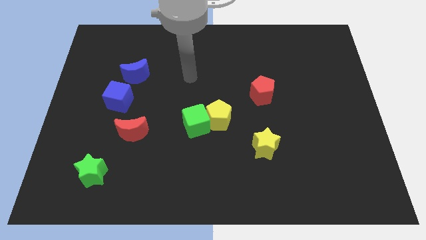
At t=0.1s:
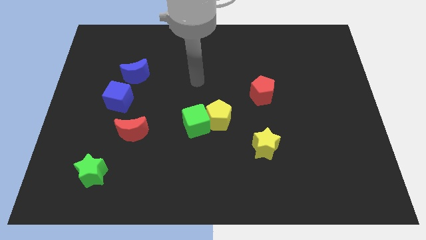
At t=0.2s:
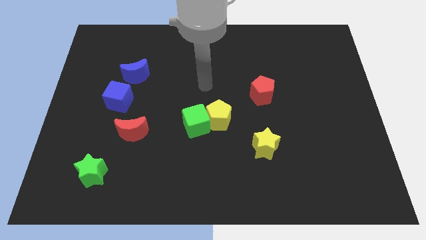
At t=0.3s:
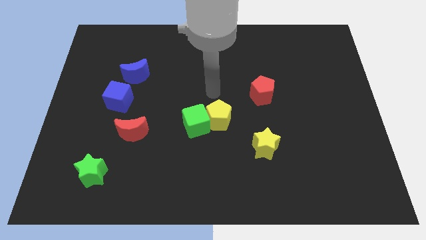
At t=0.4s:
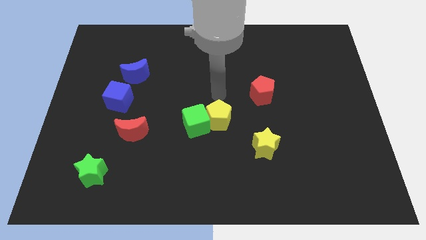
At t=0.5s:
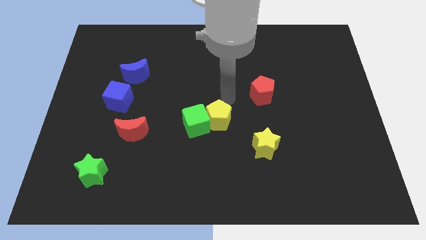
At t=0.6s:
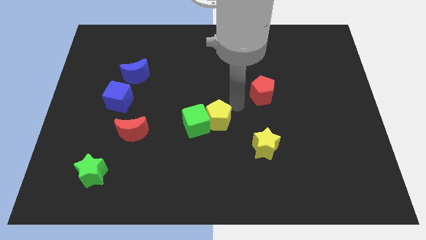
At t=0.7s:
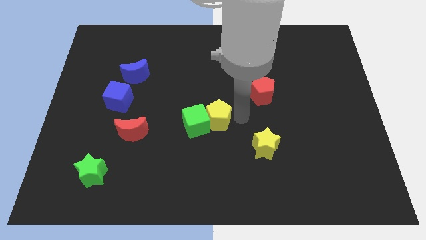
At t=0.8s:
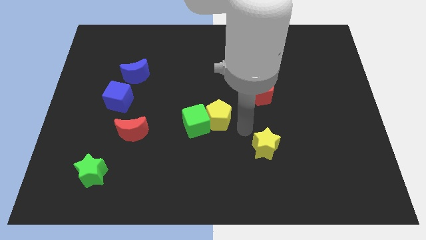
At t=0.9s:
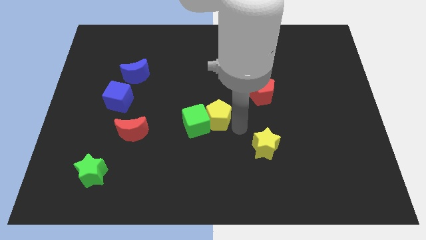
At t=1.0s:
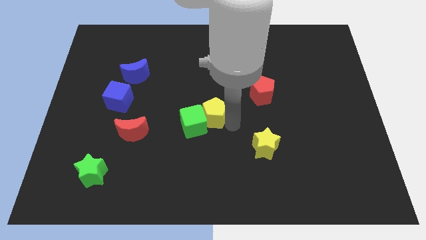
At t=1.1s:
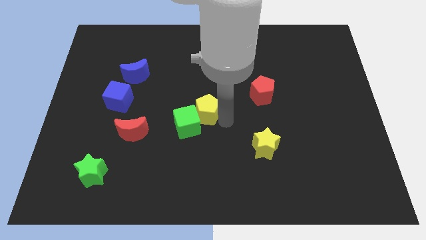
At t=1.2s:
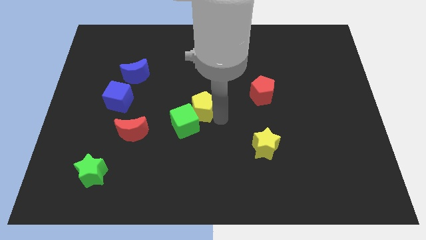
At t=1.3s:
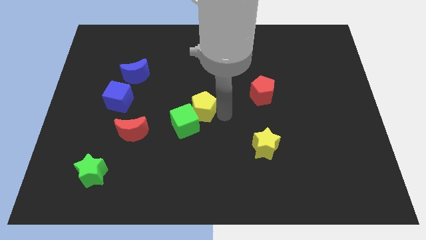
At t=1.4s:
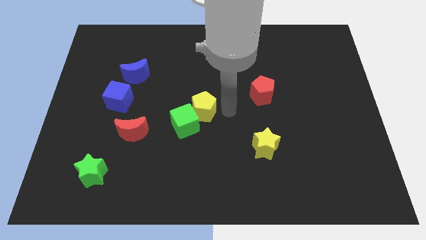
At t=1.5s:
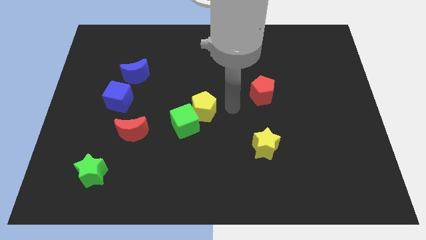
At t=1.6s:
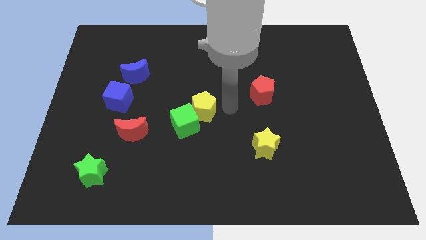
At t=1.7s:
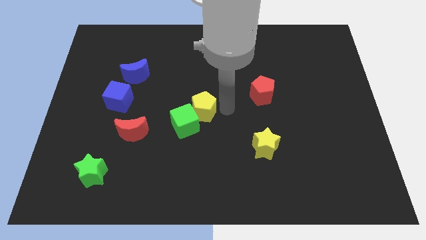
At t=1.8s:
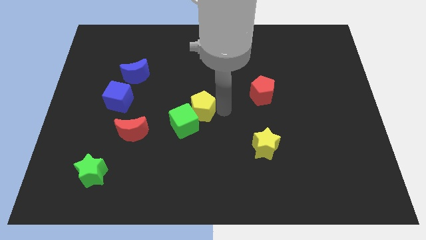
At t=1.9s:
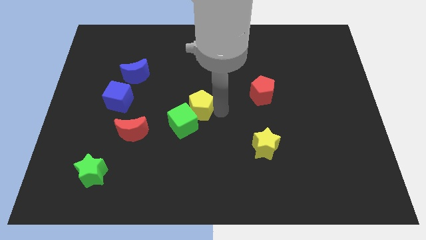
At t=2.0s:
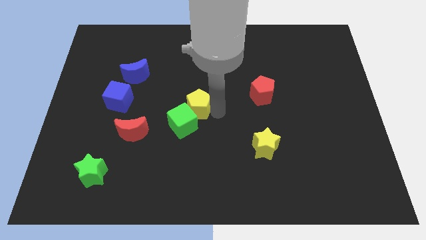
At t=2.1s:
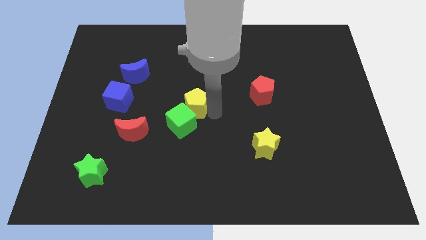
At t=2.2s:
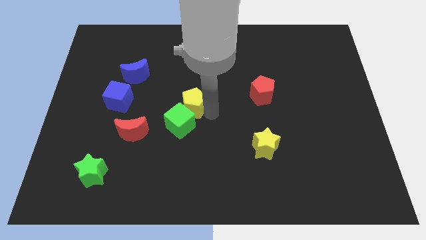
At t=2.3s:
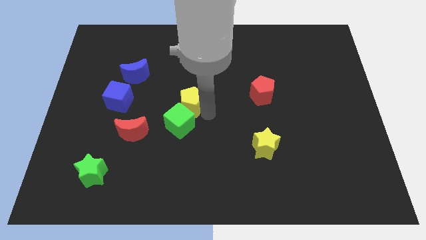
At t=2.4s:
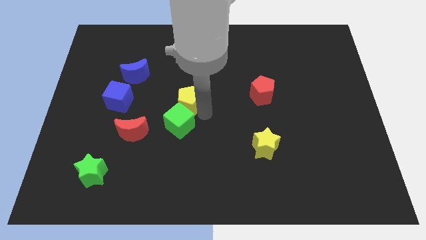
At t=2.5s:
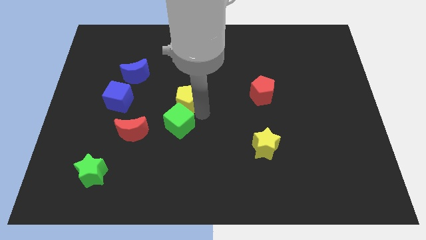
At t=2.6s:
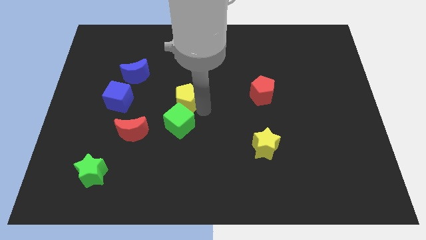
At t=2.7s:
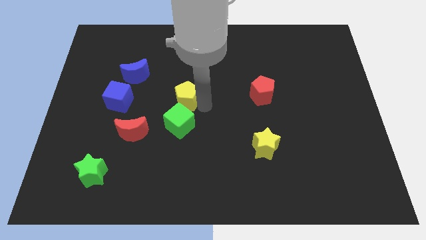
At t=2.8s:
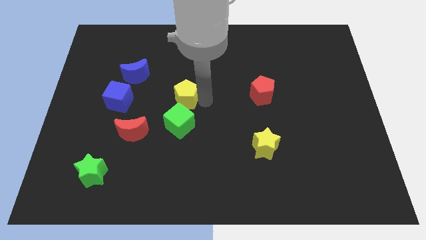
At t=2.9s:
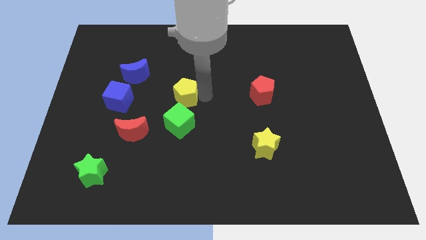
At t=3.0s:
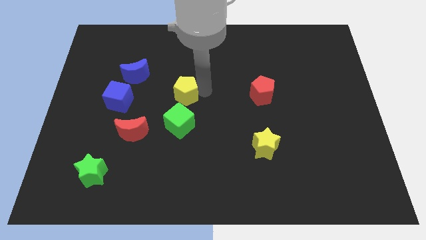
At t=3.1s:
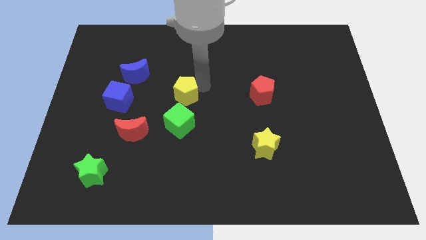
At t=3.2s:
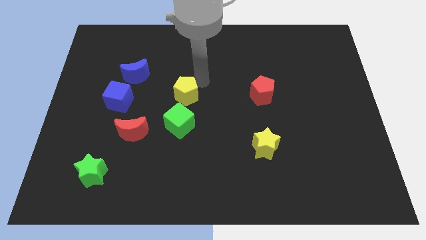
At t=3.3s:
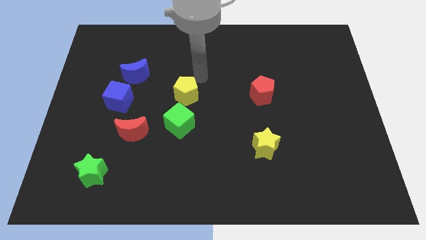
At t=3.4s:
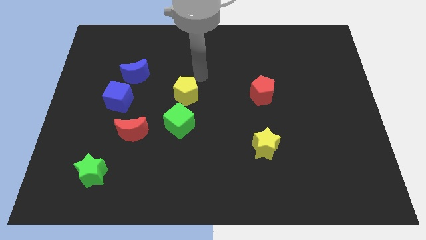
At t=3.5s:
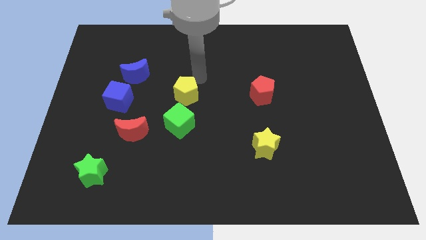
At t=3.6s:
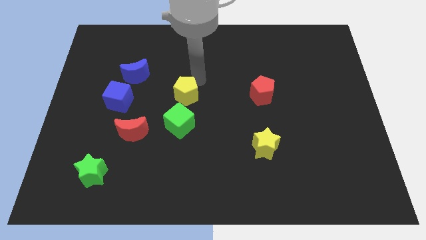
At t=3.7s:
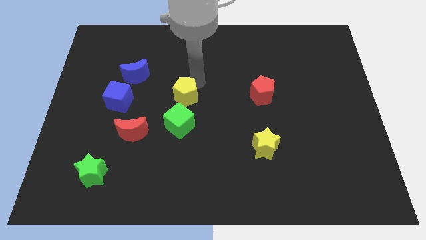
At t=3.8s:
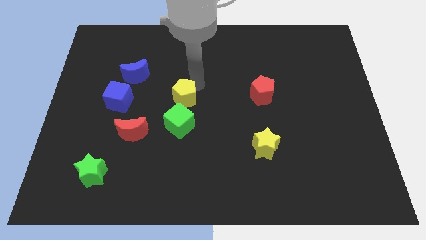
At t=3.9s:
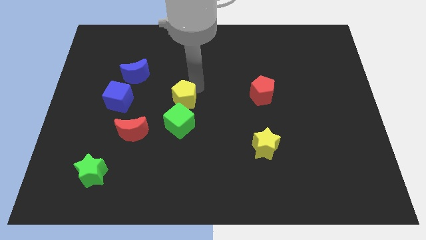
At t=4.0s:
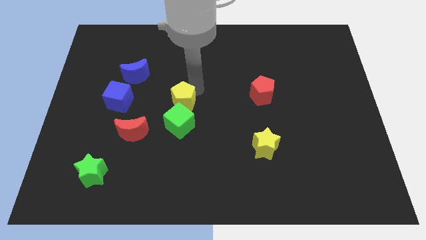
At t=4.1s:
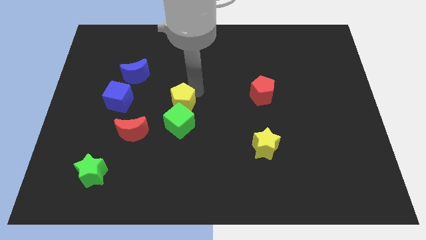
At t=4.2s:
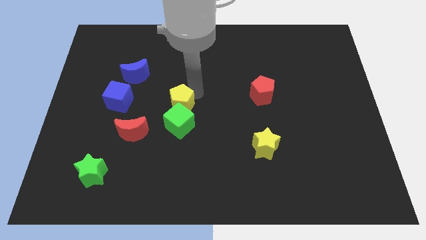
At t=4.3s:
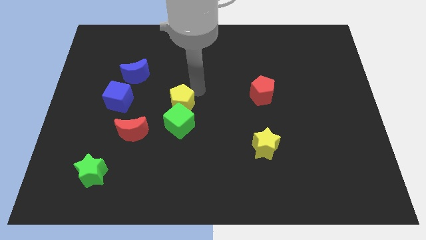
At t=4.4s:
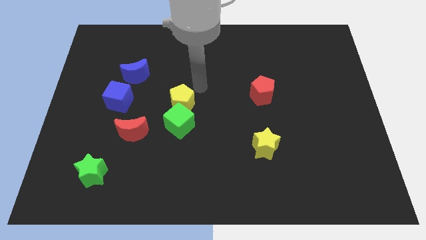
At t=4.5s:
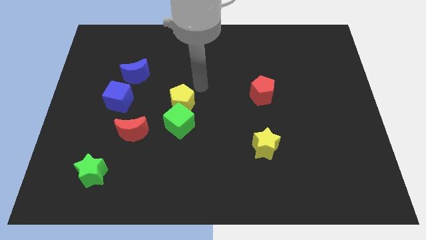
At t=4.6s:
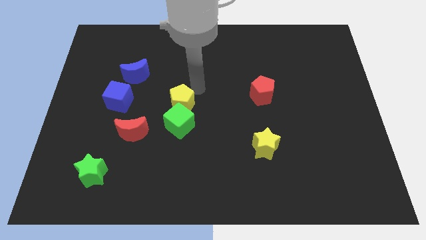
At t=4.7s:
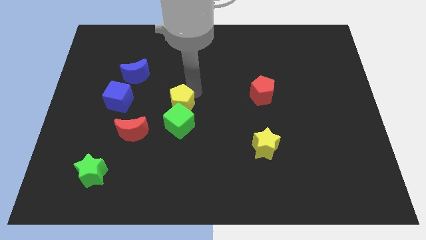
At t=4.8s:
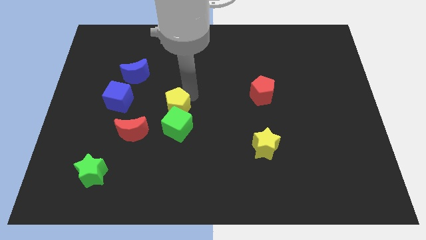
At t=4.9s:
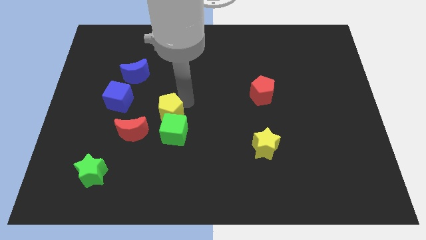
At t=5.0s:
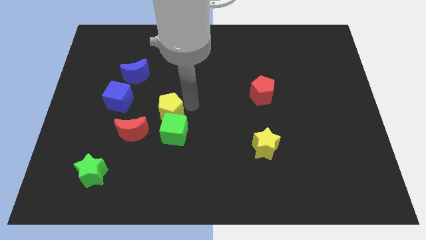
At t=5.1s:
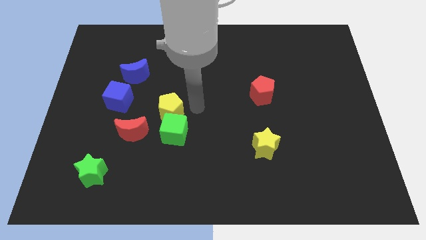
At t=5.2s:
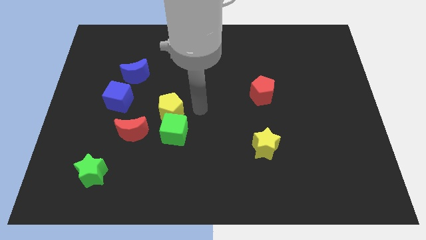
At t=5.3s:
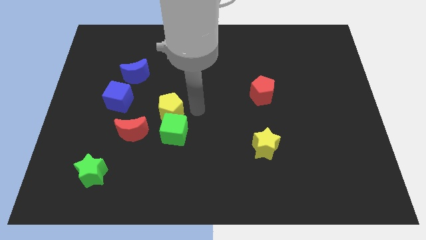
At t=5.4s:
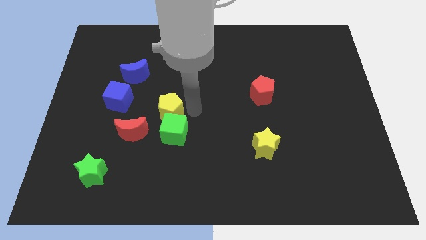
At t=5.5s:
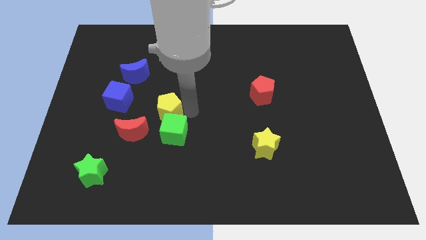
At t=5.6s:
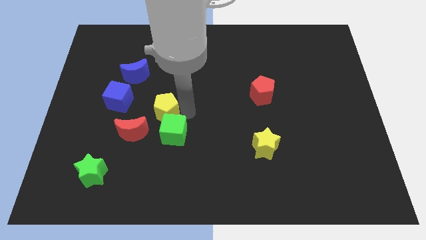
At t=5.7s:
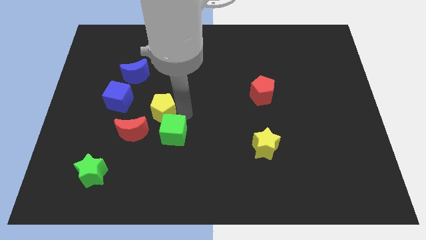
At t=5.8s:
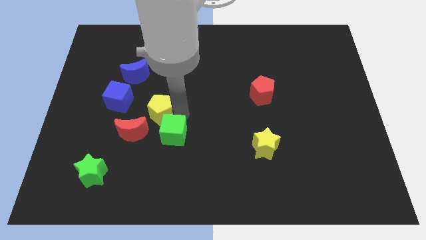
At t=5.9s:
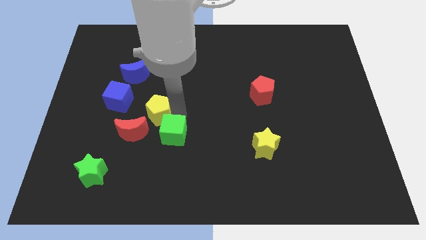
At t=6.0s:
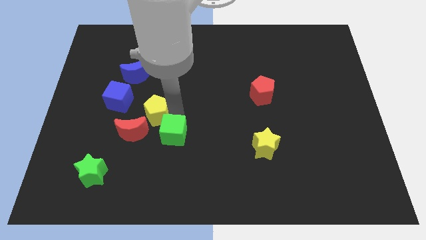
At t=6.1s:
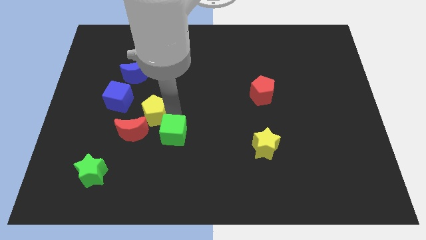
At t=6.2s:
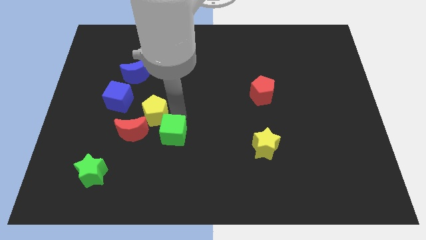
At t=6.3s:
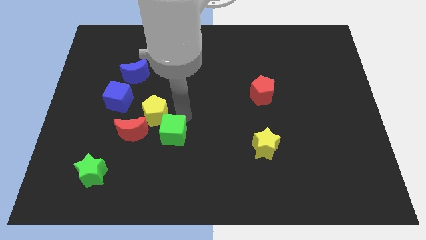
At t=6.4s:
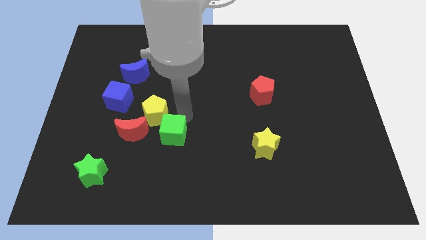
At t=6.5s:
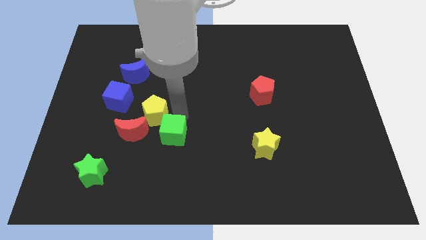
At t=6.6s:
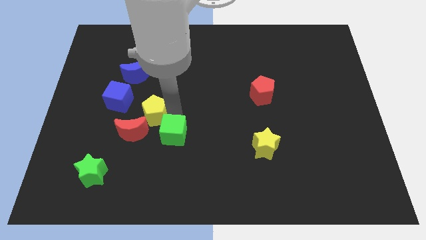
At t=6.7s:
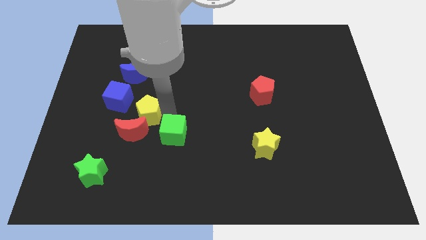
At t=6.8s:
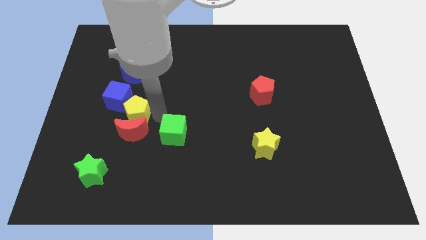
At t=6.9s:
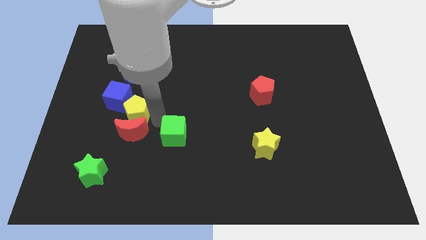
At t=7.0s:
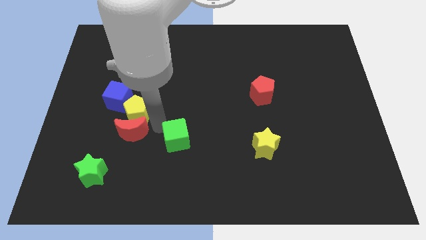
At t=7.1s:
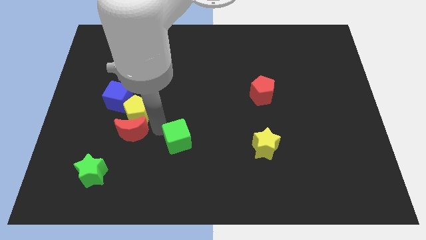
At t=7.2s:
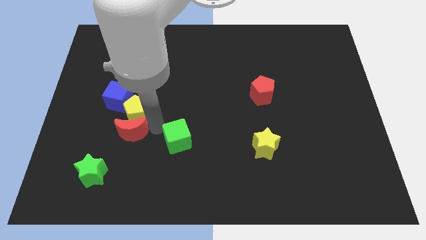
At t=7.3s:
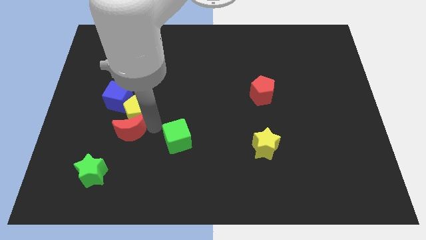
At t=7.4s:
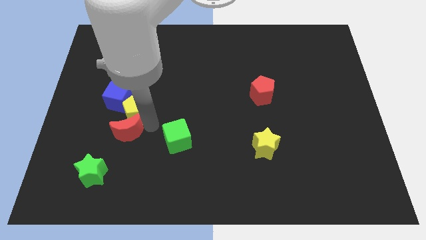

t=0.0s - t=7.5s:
put the yellow pentagon close to the blue cube
